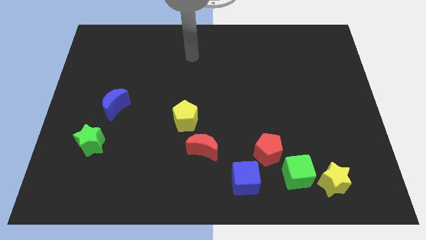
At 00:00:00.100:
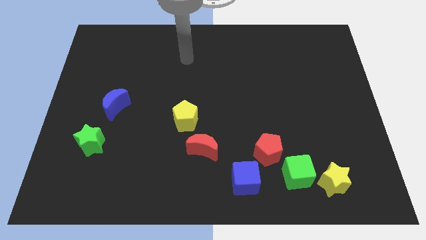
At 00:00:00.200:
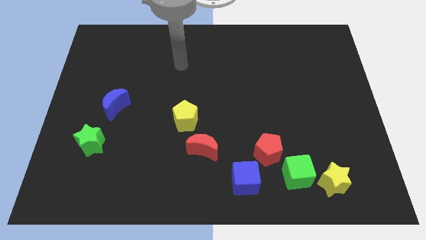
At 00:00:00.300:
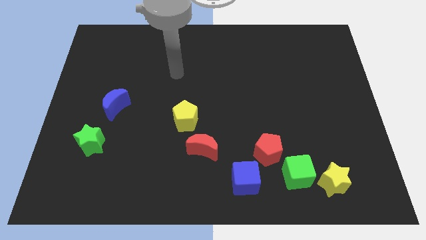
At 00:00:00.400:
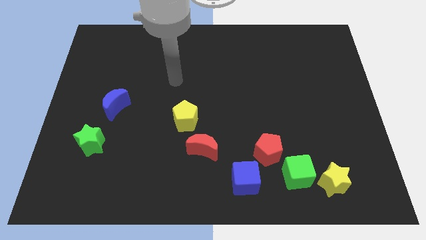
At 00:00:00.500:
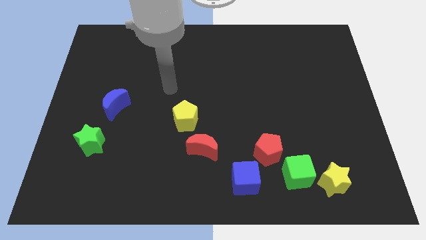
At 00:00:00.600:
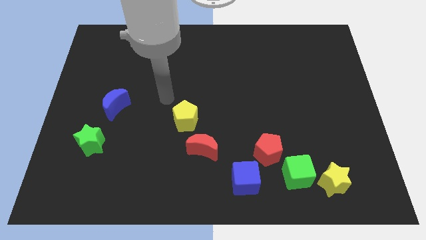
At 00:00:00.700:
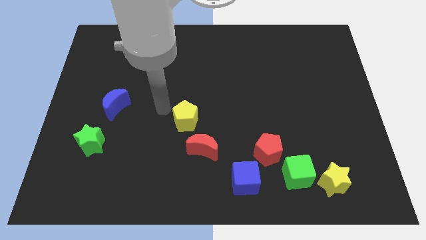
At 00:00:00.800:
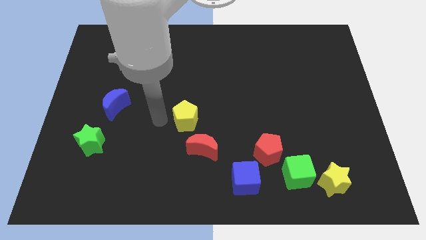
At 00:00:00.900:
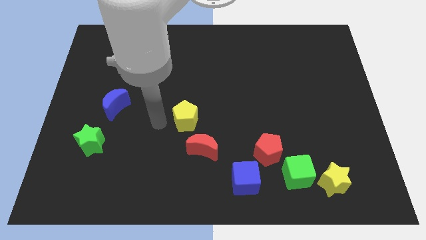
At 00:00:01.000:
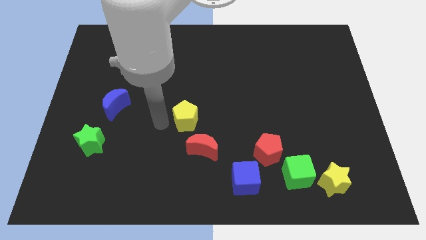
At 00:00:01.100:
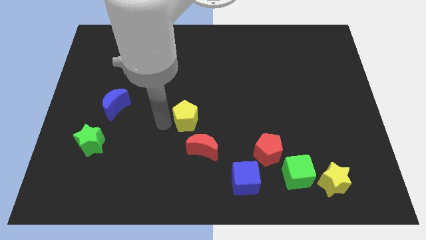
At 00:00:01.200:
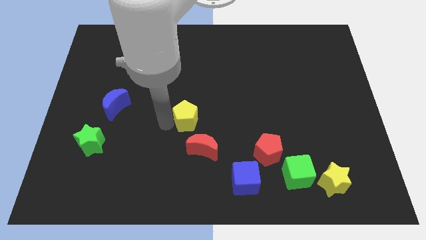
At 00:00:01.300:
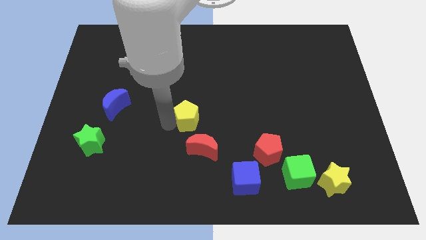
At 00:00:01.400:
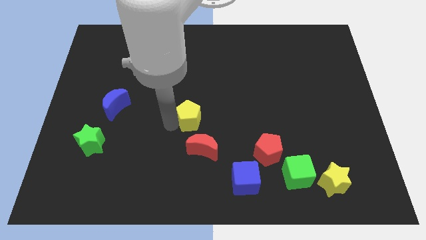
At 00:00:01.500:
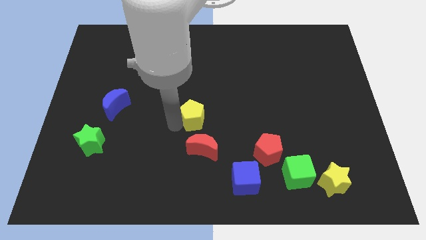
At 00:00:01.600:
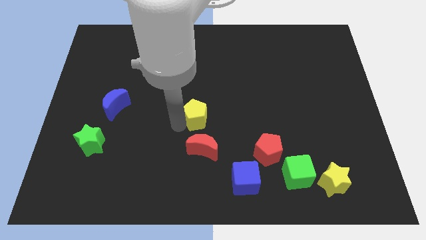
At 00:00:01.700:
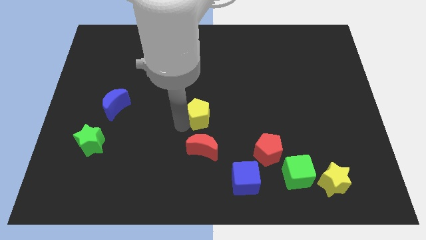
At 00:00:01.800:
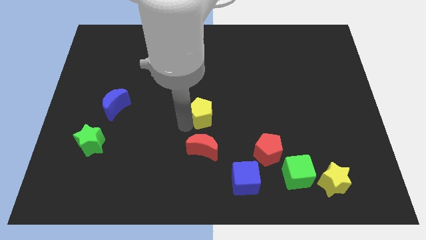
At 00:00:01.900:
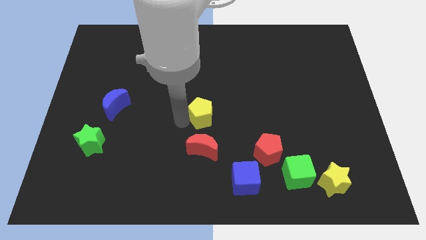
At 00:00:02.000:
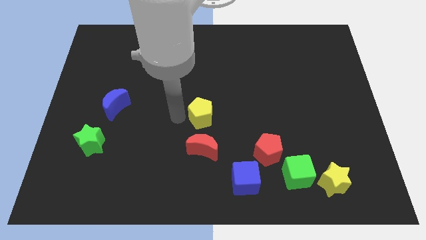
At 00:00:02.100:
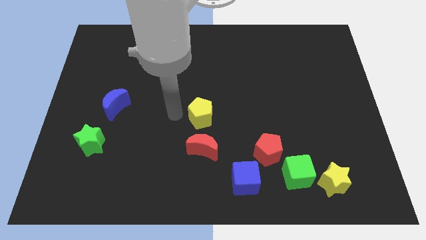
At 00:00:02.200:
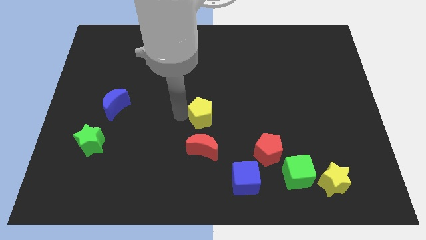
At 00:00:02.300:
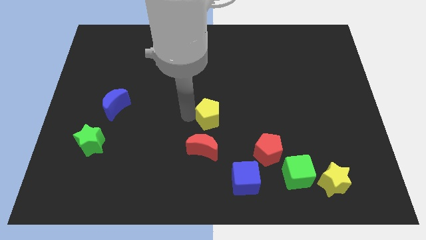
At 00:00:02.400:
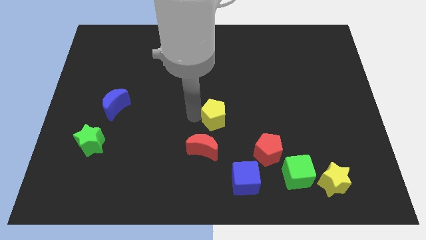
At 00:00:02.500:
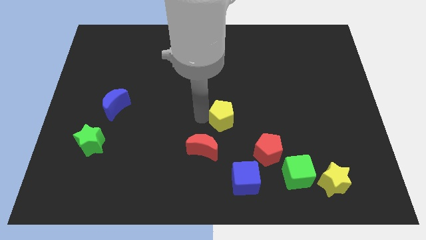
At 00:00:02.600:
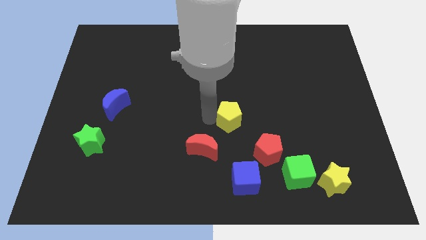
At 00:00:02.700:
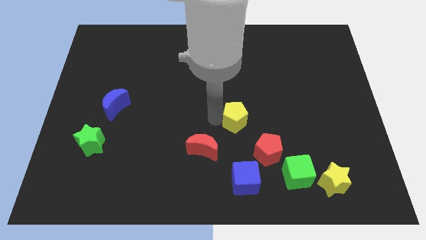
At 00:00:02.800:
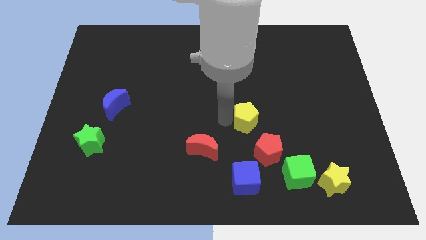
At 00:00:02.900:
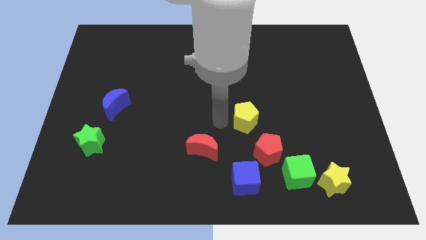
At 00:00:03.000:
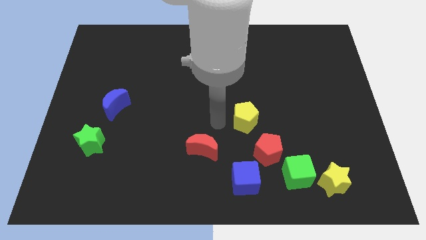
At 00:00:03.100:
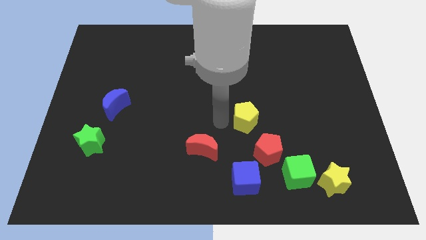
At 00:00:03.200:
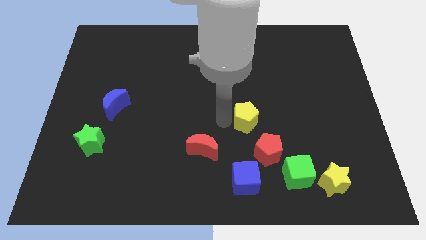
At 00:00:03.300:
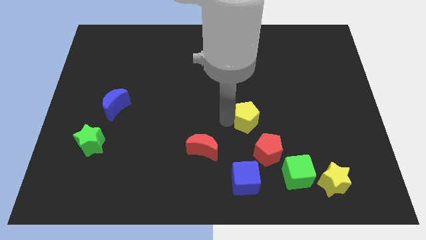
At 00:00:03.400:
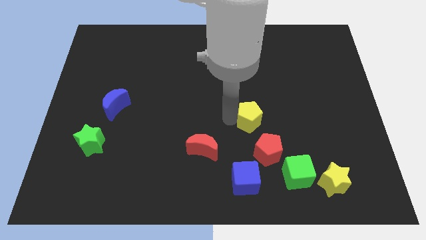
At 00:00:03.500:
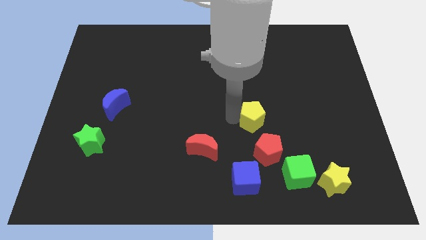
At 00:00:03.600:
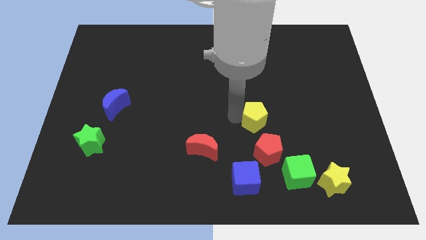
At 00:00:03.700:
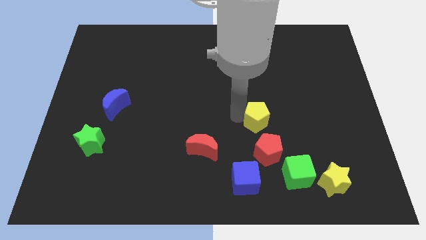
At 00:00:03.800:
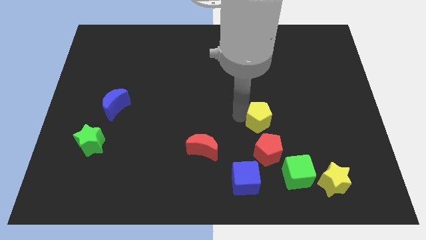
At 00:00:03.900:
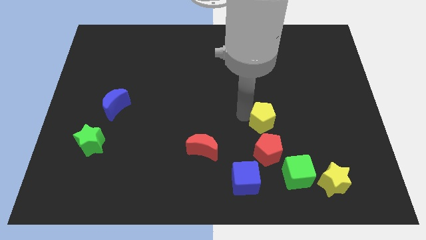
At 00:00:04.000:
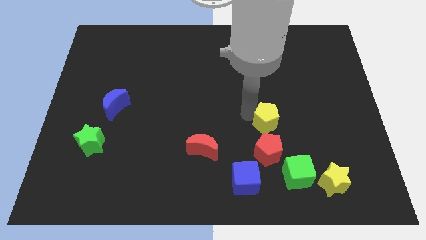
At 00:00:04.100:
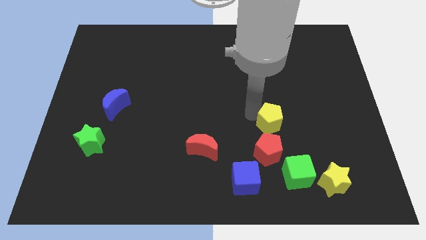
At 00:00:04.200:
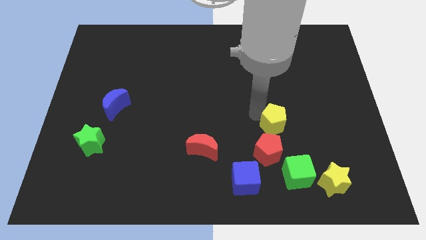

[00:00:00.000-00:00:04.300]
move the yellow pentagon right

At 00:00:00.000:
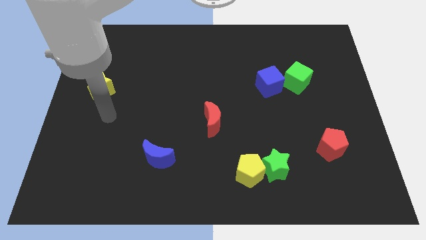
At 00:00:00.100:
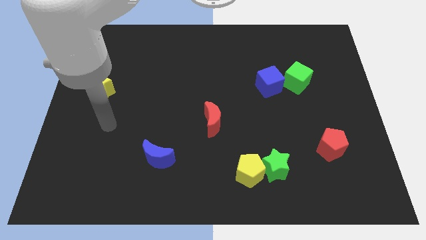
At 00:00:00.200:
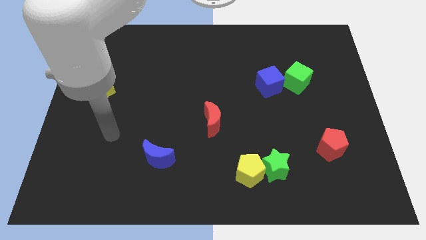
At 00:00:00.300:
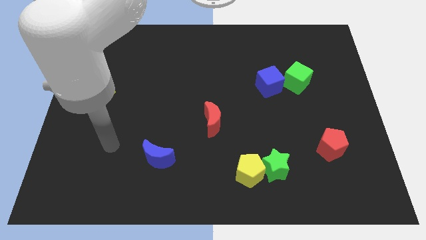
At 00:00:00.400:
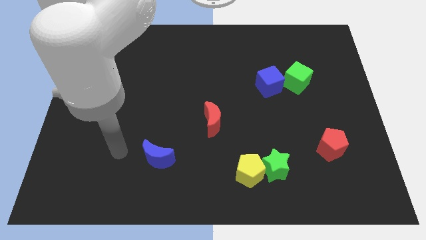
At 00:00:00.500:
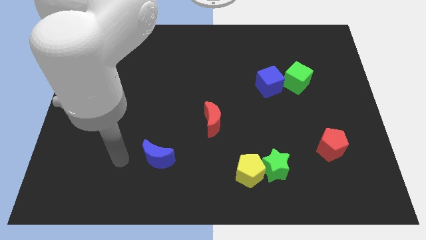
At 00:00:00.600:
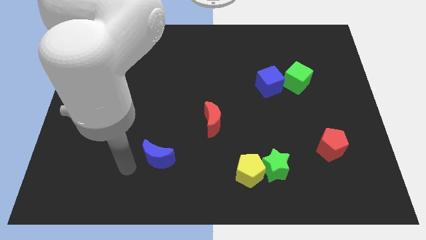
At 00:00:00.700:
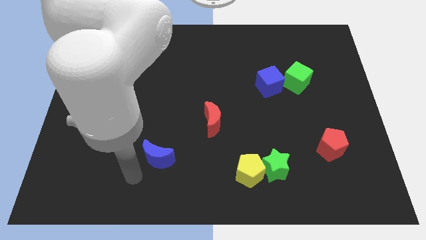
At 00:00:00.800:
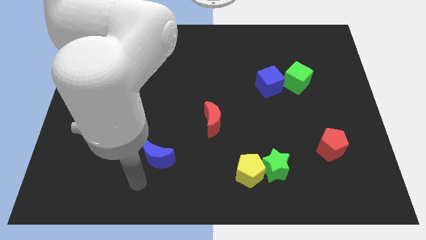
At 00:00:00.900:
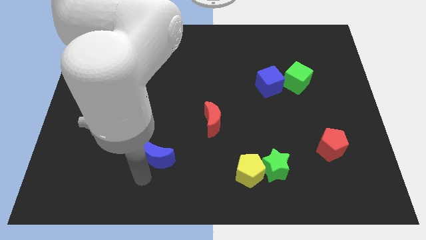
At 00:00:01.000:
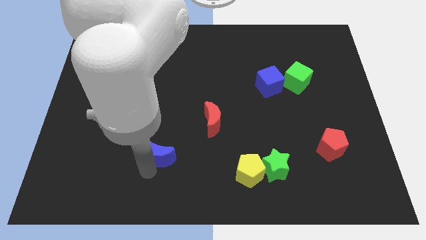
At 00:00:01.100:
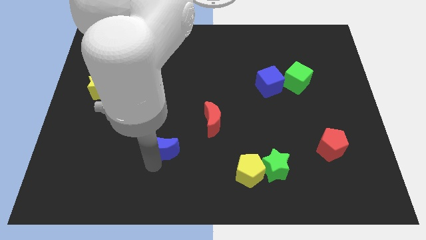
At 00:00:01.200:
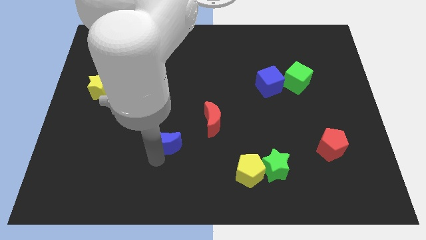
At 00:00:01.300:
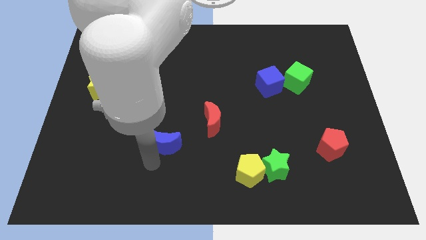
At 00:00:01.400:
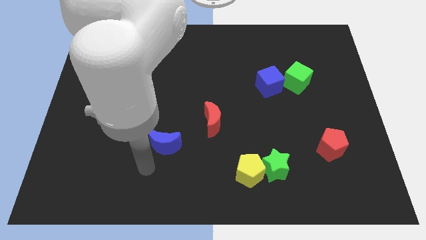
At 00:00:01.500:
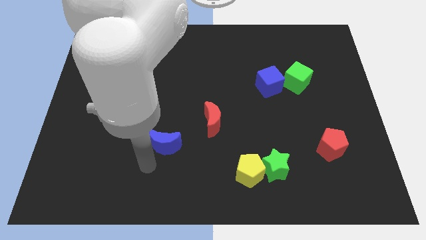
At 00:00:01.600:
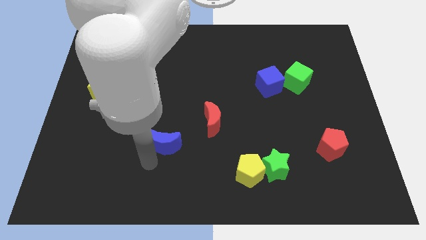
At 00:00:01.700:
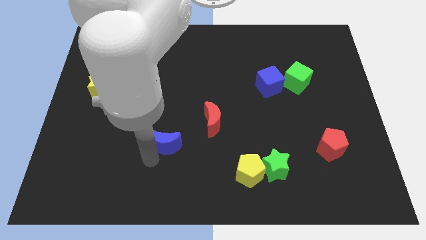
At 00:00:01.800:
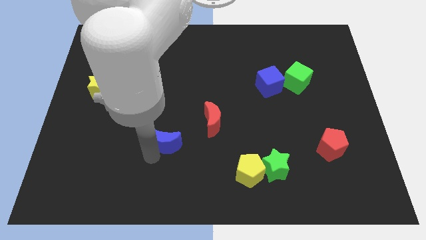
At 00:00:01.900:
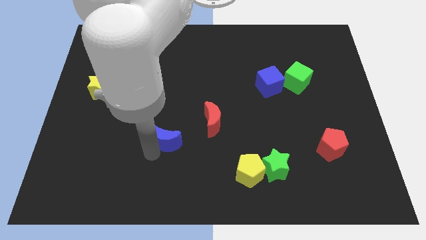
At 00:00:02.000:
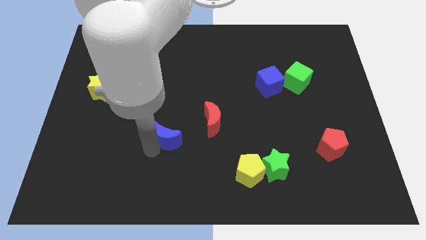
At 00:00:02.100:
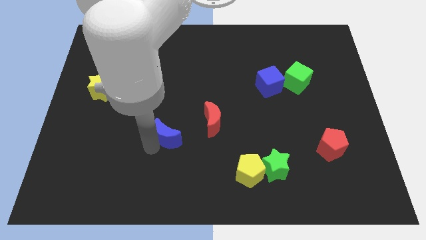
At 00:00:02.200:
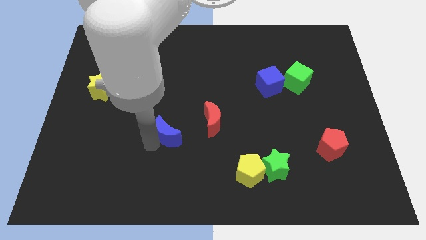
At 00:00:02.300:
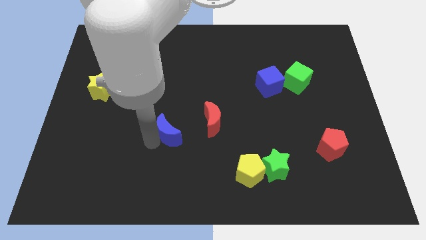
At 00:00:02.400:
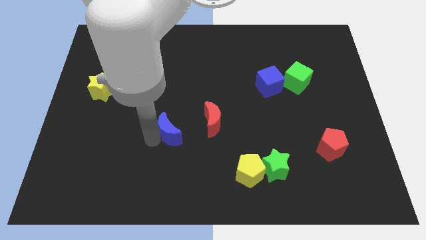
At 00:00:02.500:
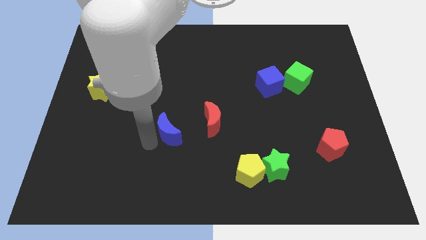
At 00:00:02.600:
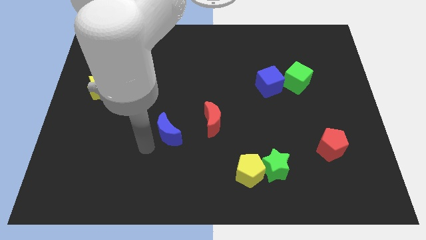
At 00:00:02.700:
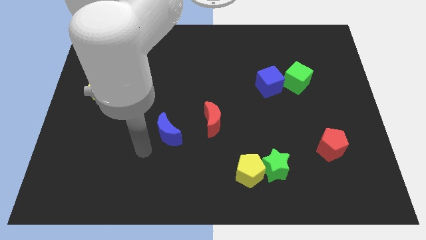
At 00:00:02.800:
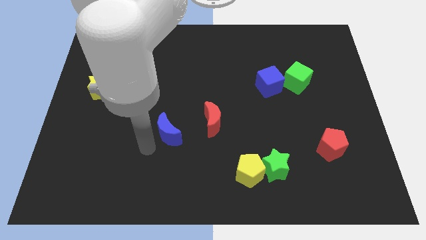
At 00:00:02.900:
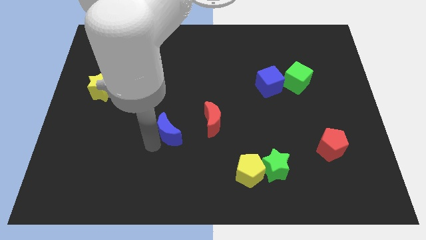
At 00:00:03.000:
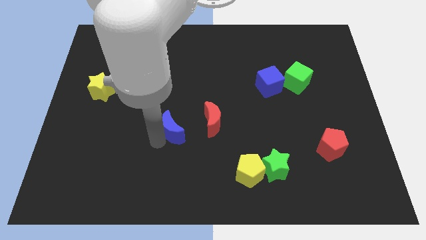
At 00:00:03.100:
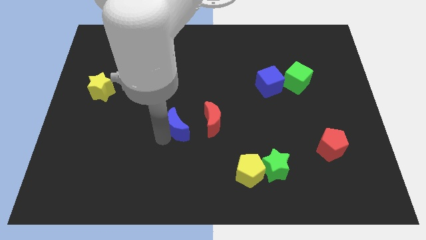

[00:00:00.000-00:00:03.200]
push the blue moon upwards and then right a little

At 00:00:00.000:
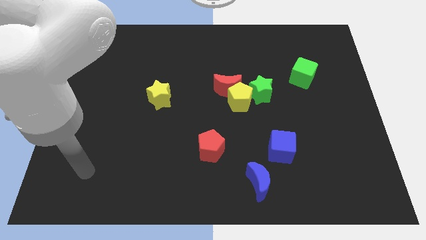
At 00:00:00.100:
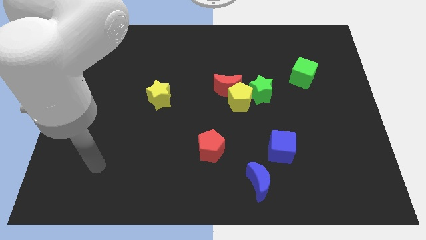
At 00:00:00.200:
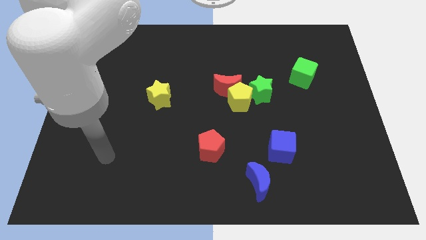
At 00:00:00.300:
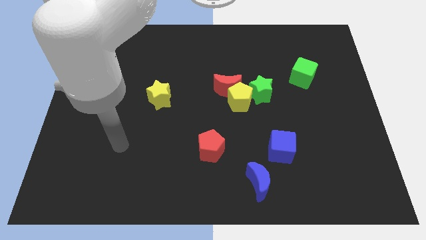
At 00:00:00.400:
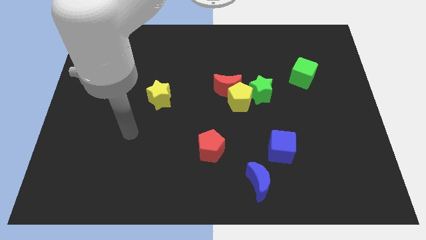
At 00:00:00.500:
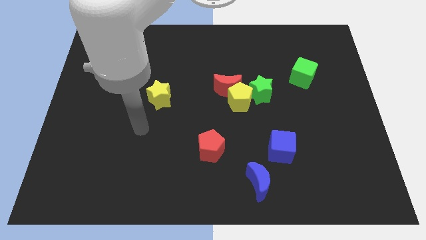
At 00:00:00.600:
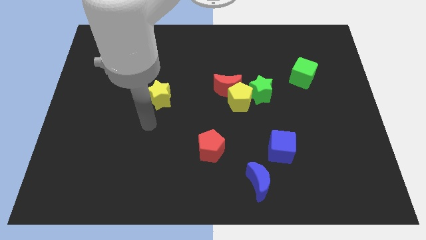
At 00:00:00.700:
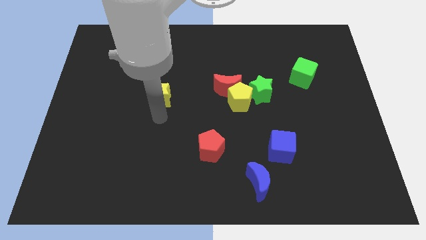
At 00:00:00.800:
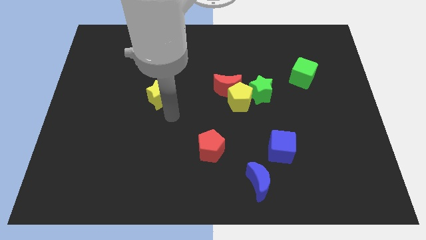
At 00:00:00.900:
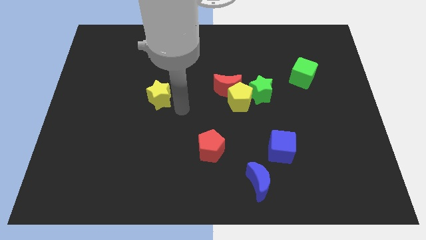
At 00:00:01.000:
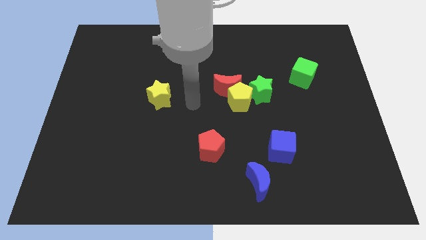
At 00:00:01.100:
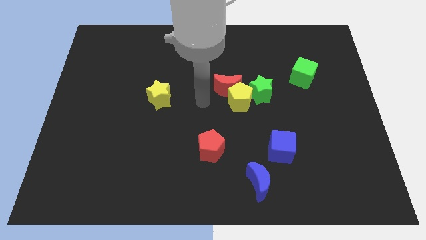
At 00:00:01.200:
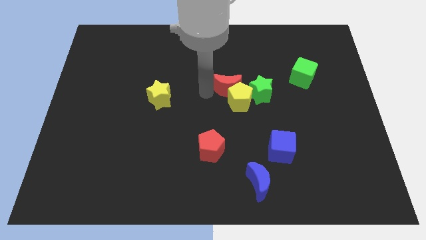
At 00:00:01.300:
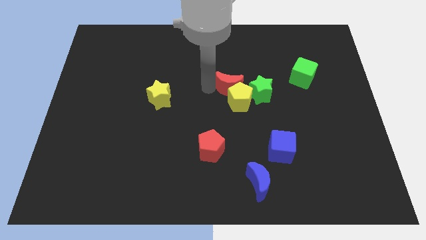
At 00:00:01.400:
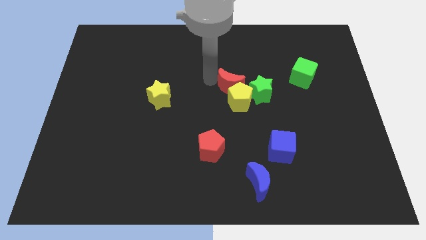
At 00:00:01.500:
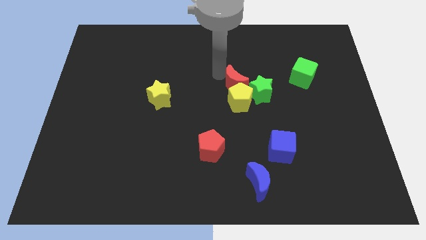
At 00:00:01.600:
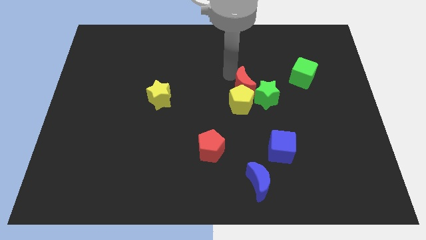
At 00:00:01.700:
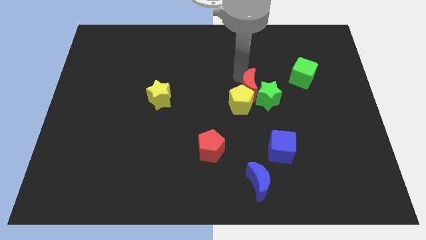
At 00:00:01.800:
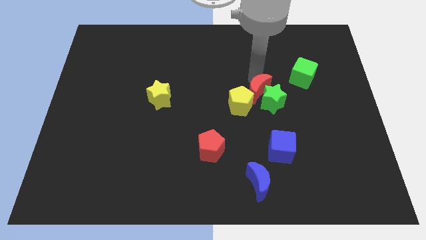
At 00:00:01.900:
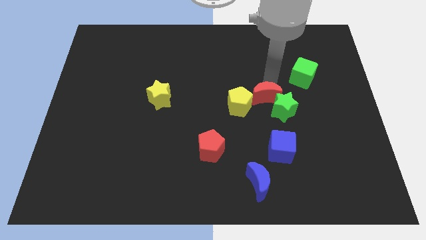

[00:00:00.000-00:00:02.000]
slide the red moon diagonally down and right a bit
